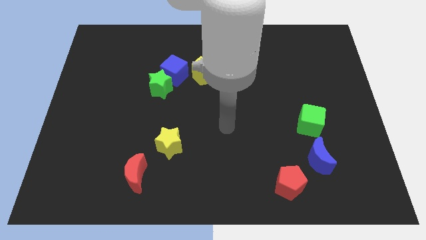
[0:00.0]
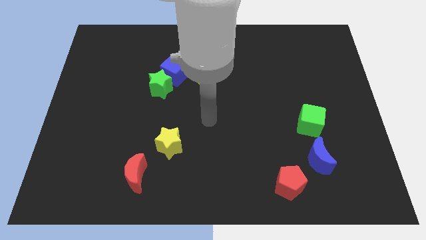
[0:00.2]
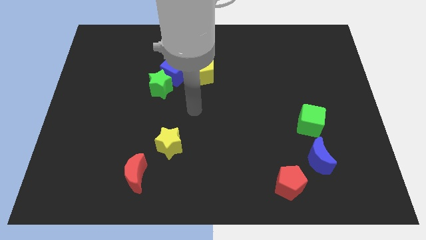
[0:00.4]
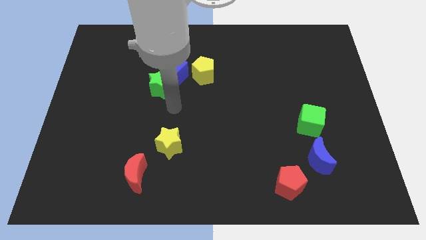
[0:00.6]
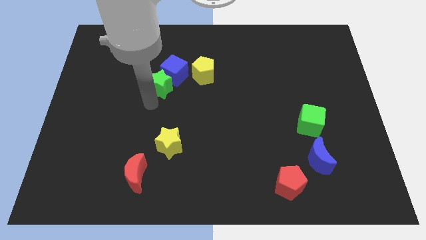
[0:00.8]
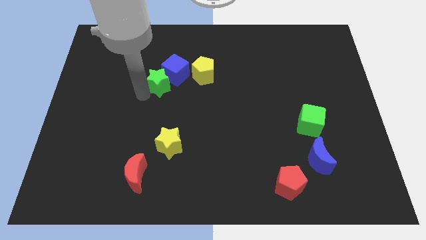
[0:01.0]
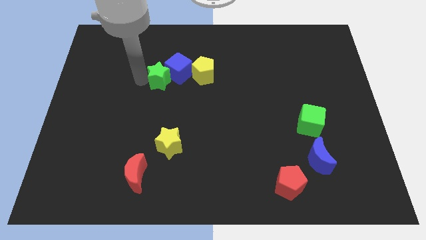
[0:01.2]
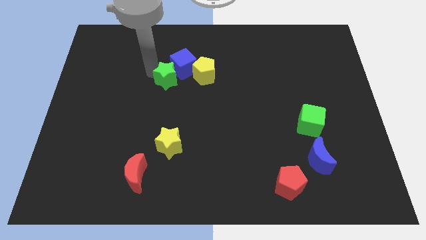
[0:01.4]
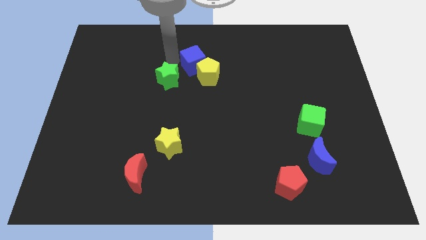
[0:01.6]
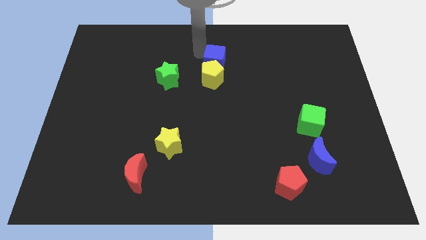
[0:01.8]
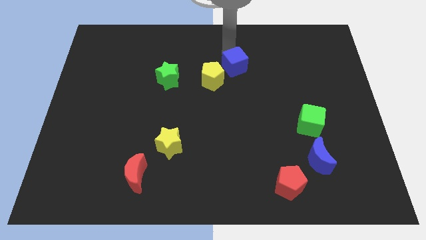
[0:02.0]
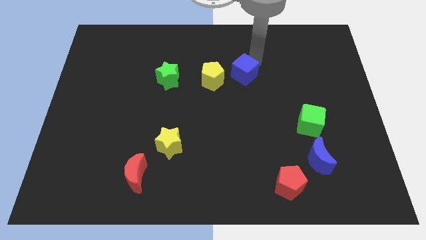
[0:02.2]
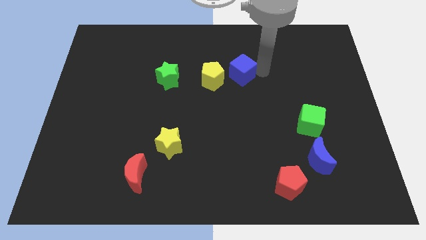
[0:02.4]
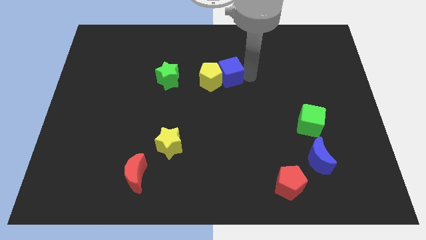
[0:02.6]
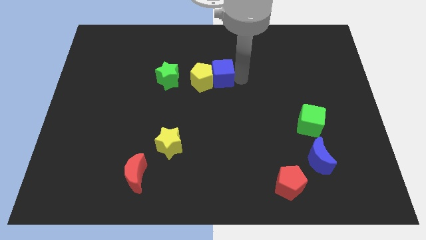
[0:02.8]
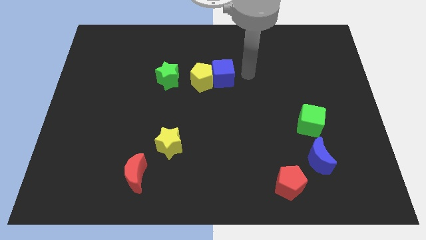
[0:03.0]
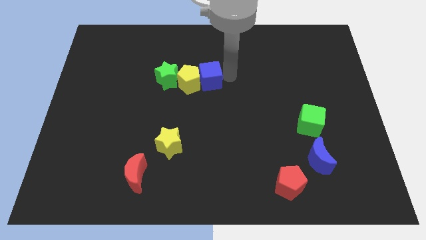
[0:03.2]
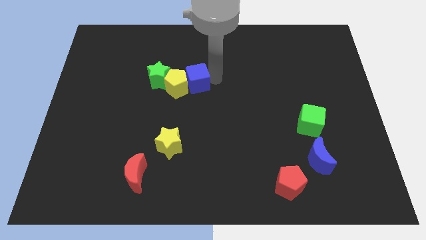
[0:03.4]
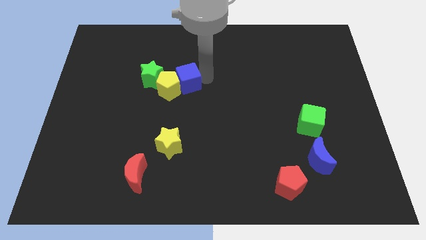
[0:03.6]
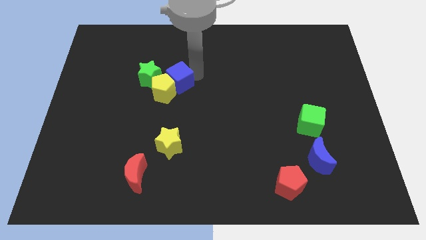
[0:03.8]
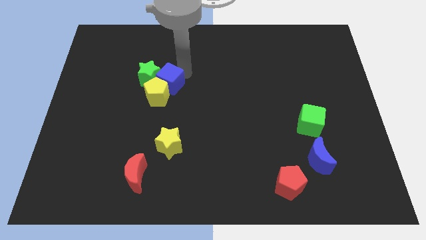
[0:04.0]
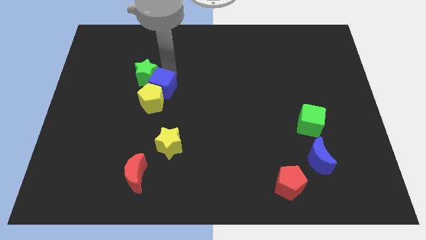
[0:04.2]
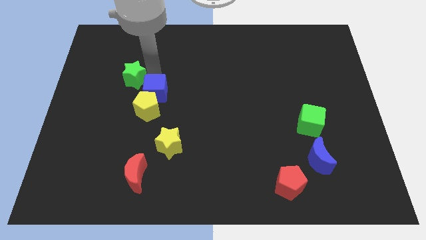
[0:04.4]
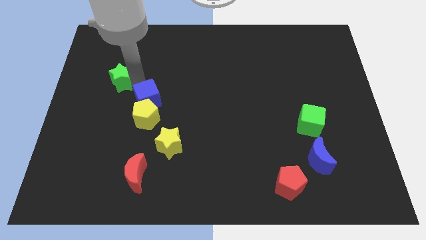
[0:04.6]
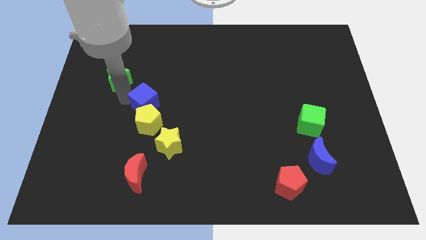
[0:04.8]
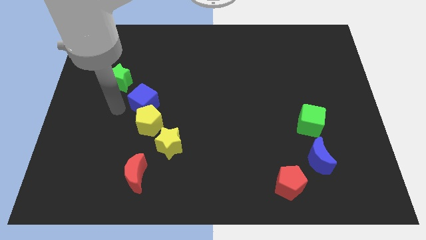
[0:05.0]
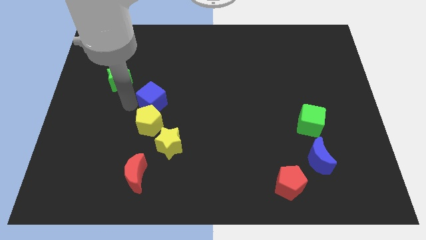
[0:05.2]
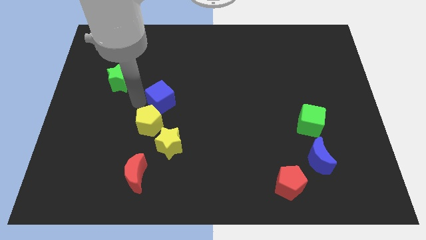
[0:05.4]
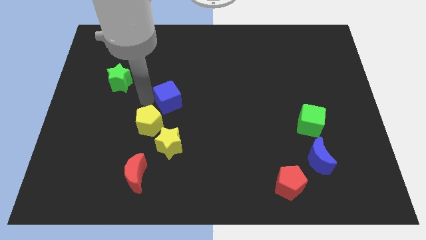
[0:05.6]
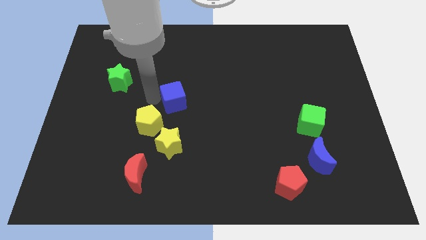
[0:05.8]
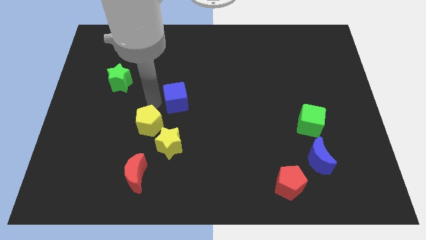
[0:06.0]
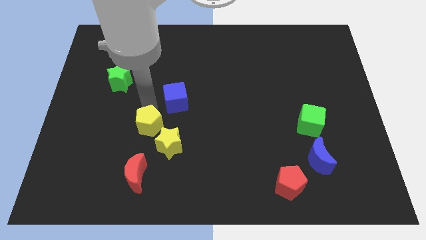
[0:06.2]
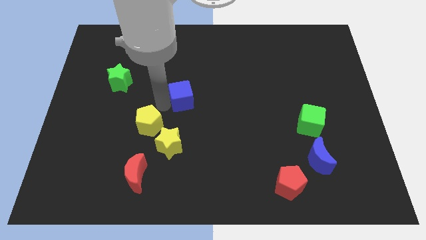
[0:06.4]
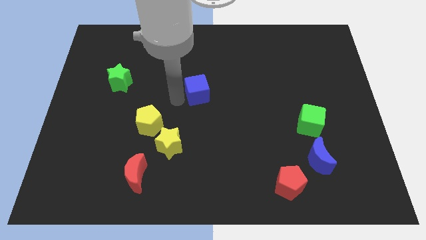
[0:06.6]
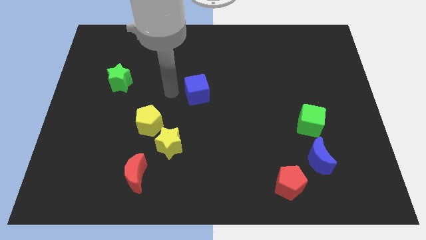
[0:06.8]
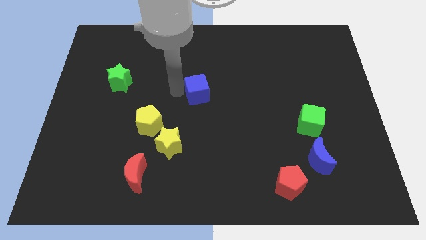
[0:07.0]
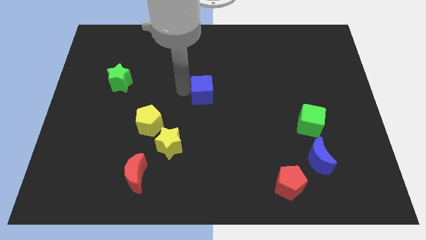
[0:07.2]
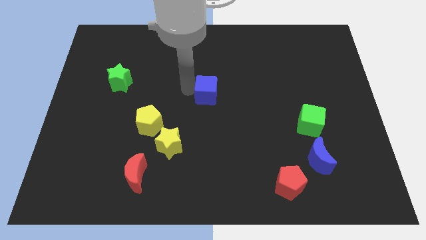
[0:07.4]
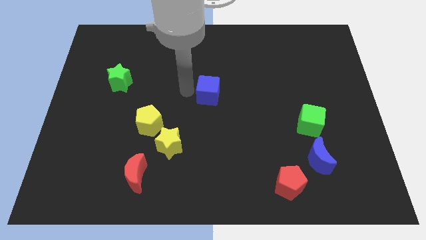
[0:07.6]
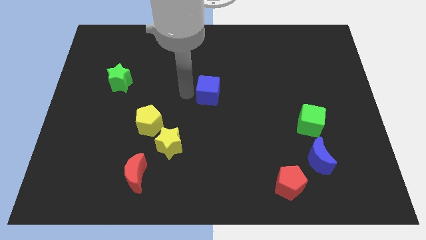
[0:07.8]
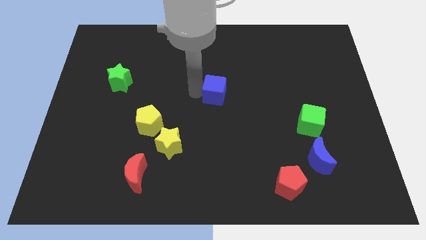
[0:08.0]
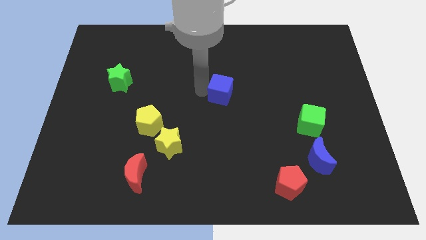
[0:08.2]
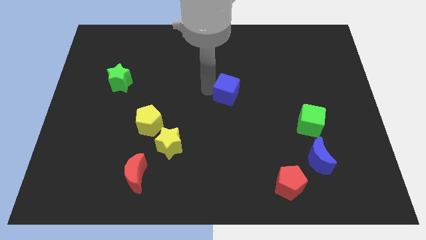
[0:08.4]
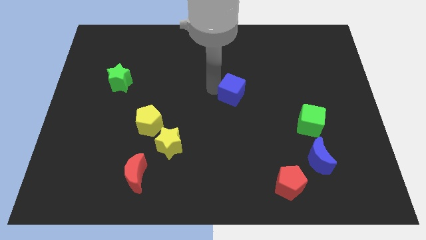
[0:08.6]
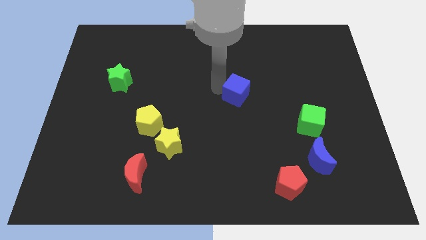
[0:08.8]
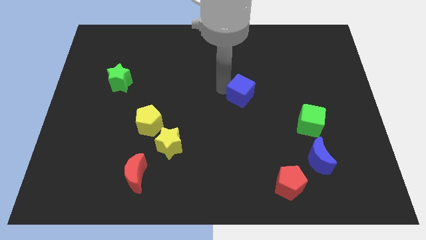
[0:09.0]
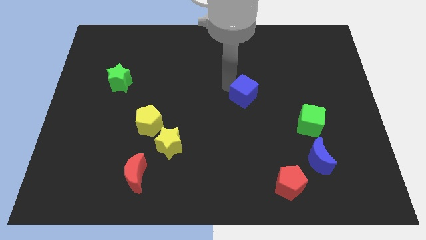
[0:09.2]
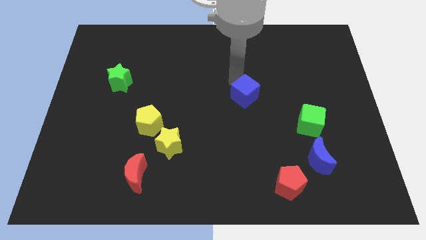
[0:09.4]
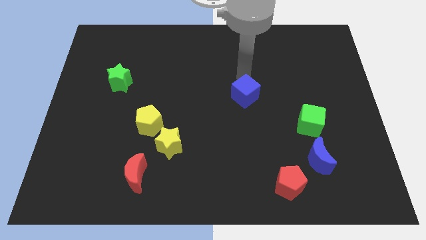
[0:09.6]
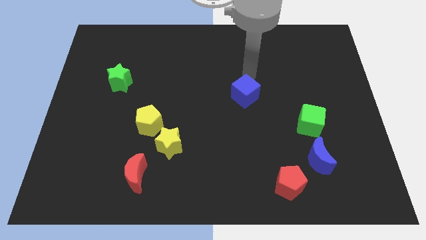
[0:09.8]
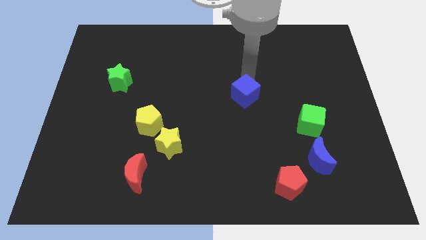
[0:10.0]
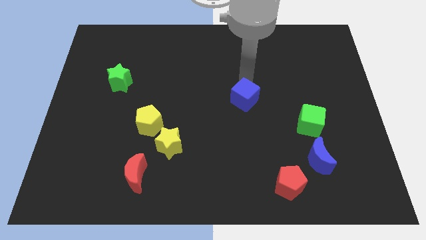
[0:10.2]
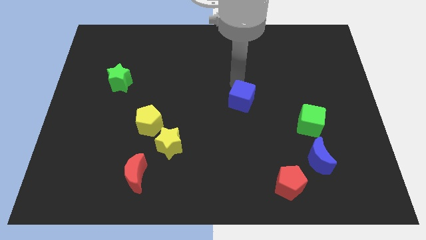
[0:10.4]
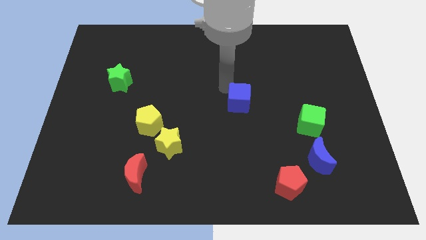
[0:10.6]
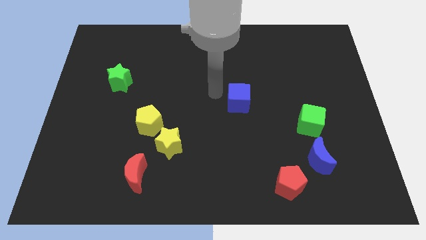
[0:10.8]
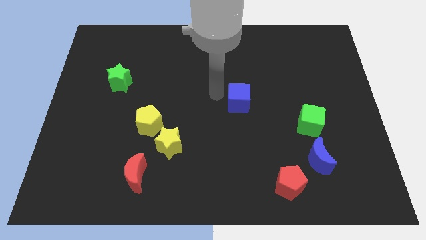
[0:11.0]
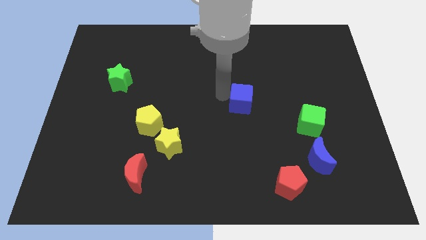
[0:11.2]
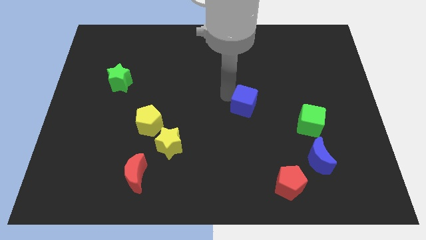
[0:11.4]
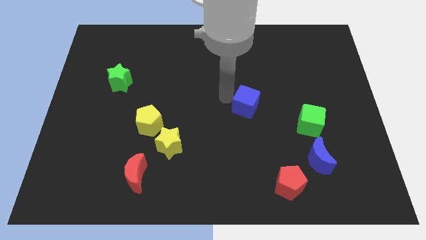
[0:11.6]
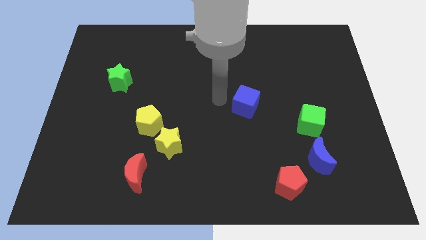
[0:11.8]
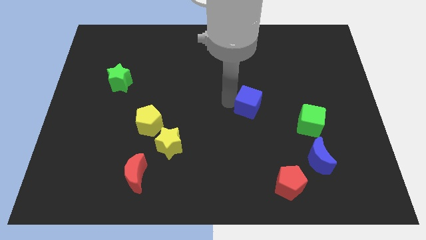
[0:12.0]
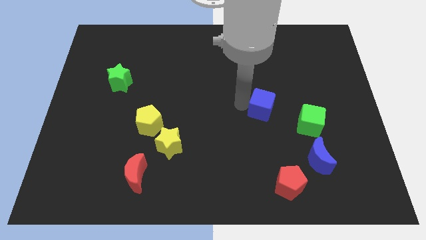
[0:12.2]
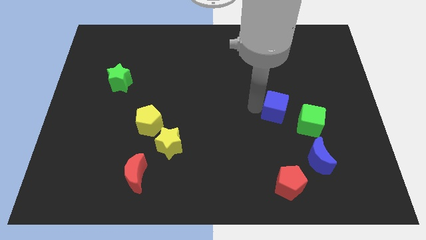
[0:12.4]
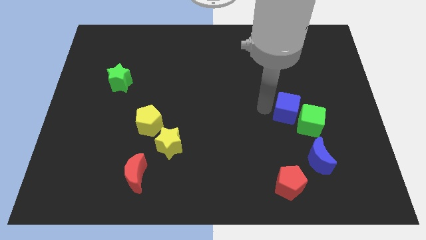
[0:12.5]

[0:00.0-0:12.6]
put the blue cube next to the green cube
